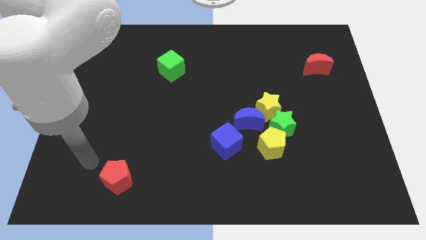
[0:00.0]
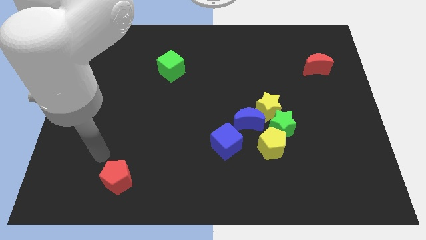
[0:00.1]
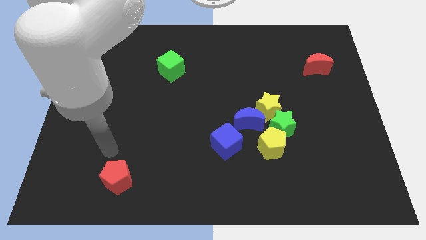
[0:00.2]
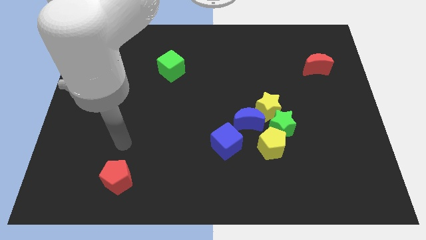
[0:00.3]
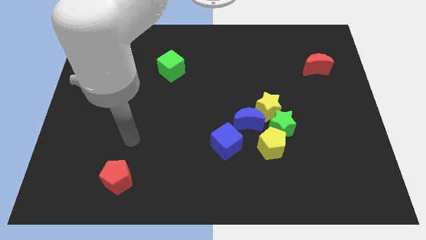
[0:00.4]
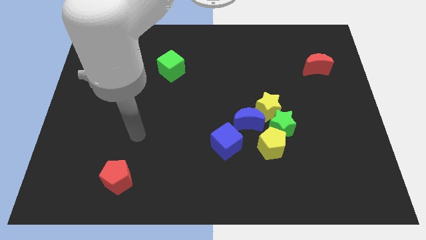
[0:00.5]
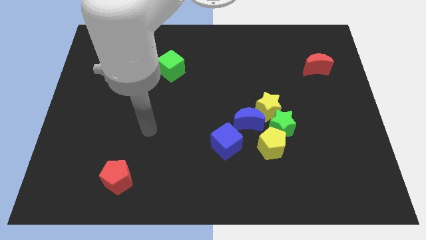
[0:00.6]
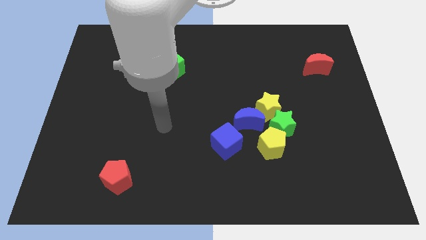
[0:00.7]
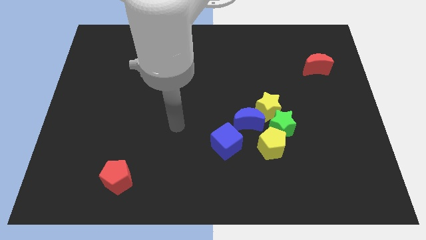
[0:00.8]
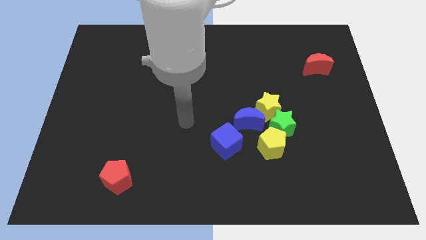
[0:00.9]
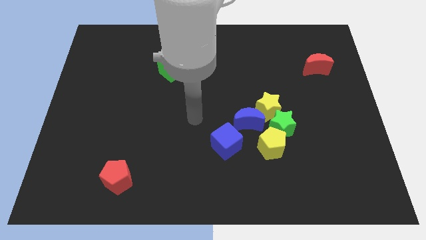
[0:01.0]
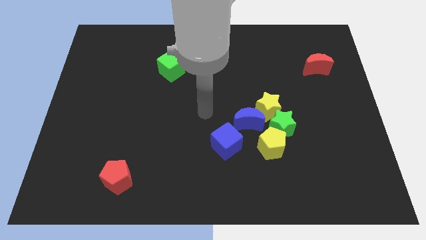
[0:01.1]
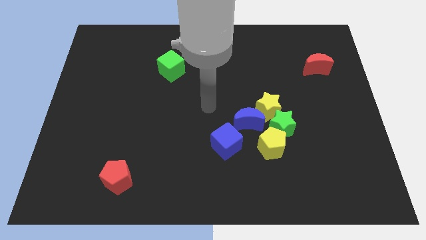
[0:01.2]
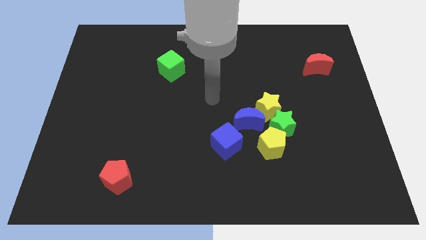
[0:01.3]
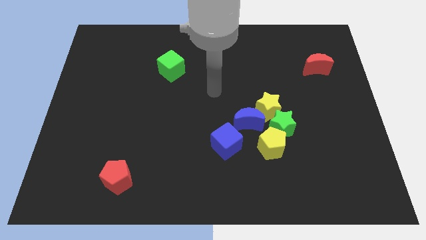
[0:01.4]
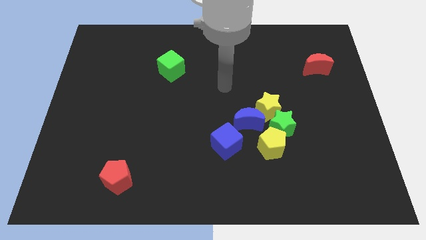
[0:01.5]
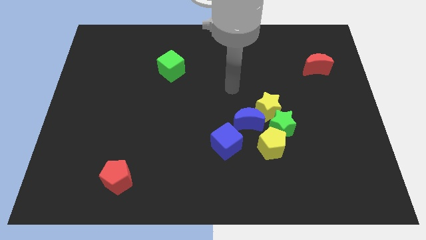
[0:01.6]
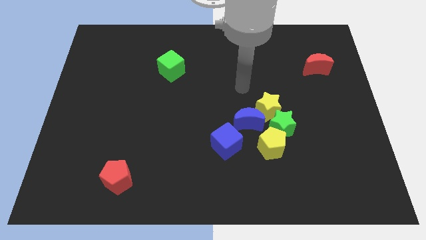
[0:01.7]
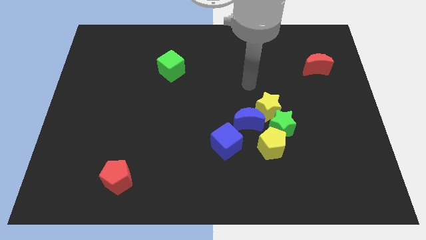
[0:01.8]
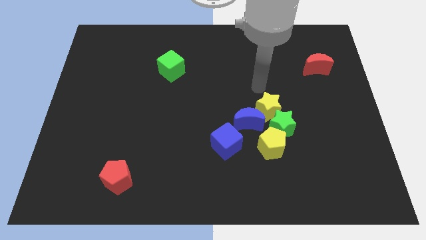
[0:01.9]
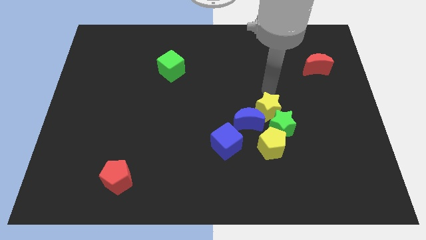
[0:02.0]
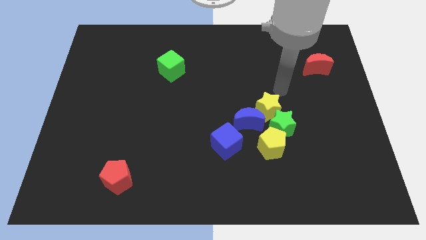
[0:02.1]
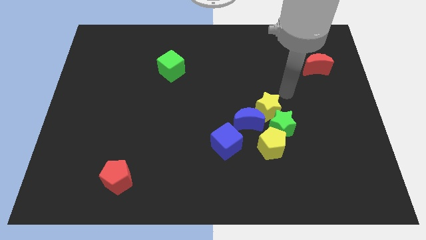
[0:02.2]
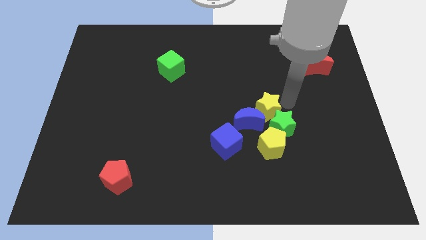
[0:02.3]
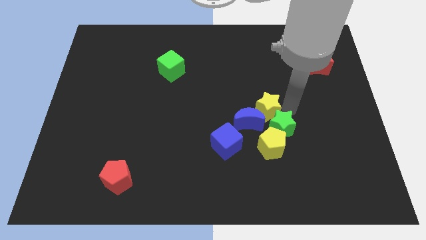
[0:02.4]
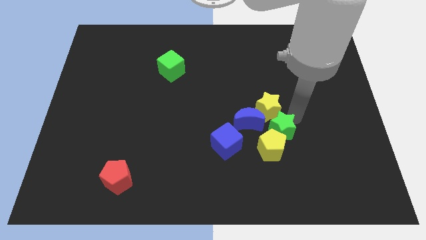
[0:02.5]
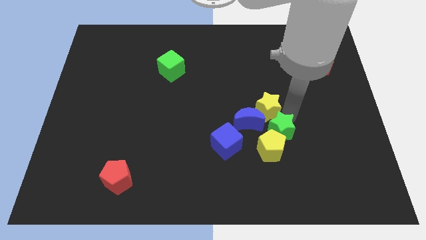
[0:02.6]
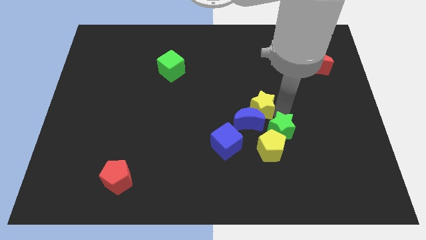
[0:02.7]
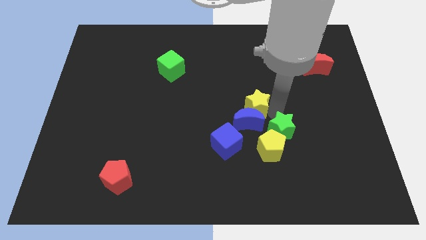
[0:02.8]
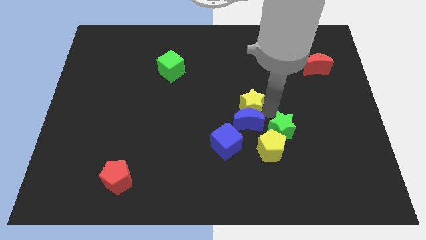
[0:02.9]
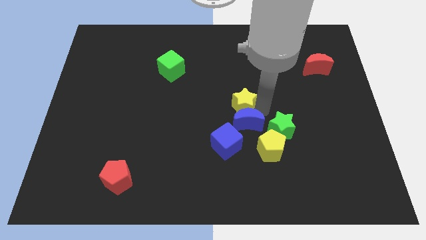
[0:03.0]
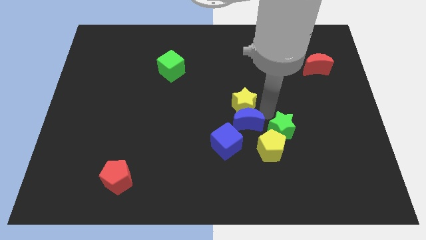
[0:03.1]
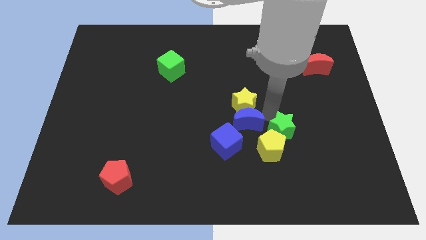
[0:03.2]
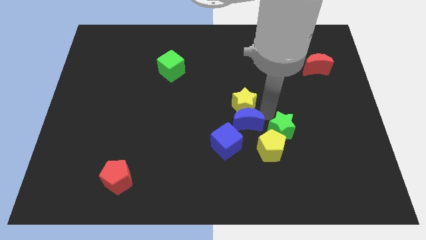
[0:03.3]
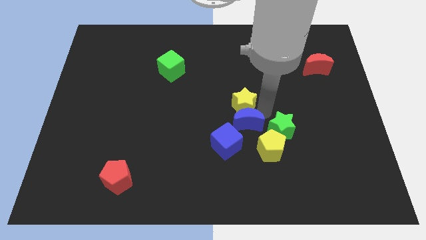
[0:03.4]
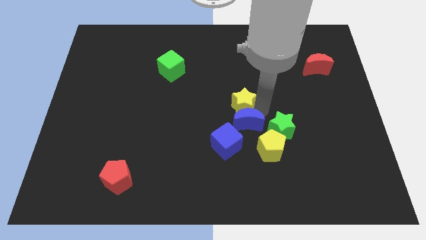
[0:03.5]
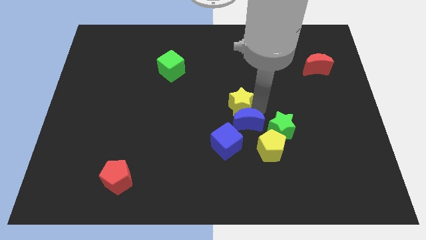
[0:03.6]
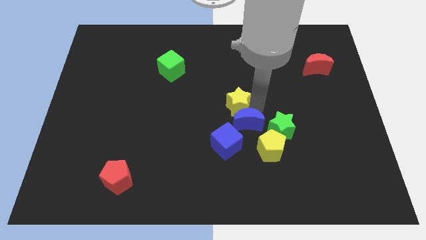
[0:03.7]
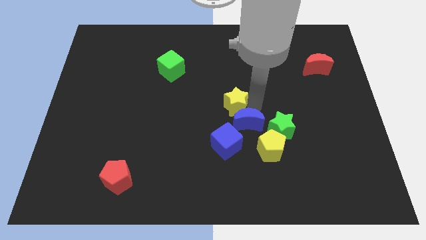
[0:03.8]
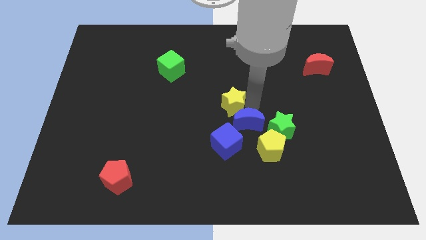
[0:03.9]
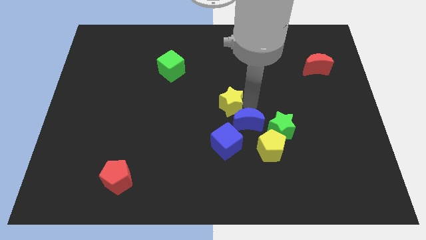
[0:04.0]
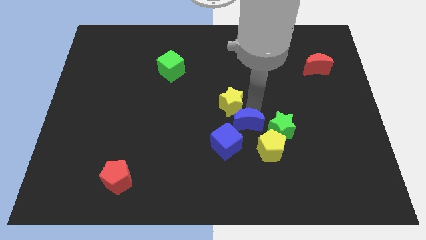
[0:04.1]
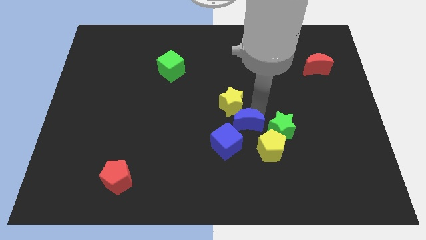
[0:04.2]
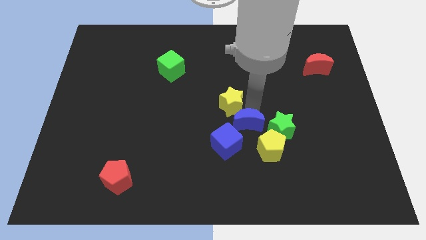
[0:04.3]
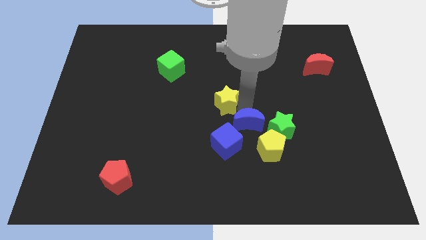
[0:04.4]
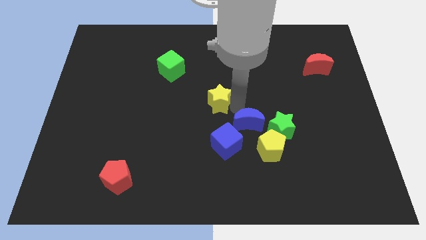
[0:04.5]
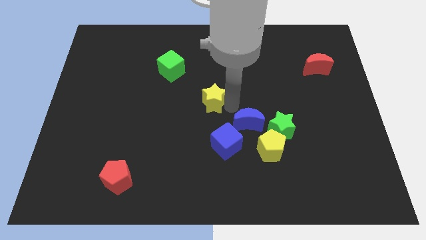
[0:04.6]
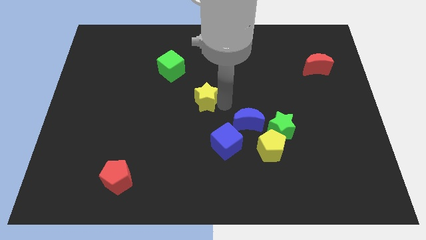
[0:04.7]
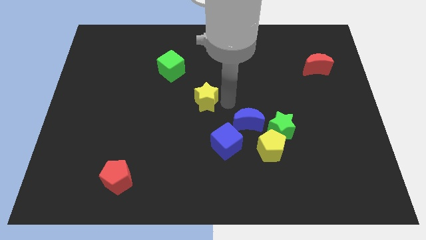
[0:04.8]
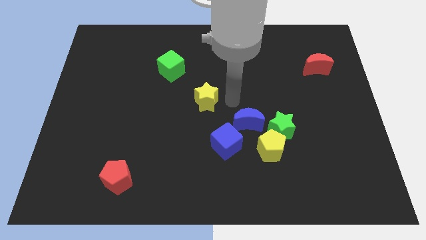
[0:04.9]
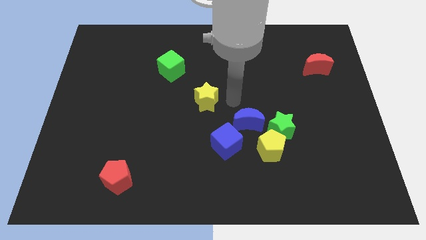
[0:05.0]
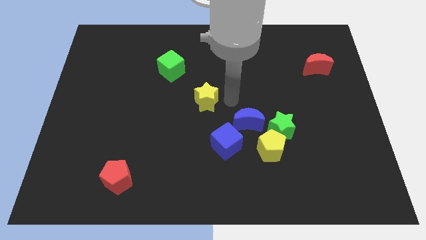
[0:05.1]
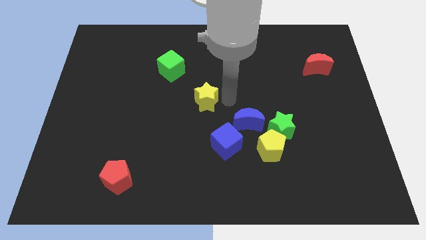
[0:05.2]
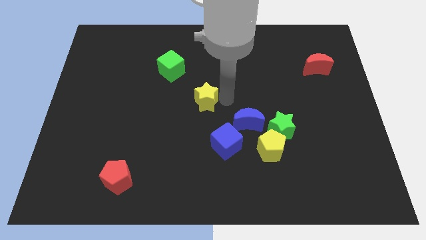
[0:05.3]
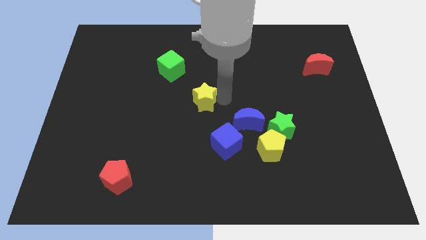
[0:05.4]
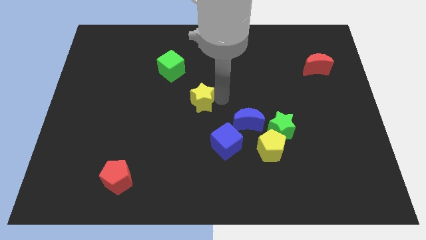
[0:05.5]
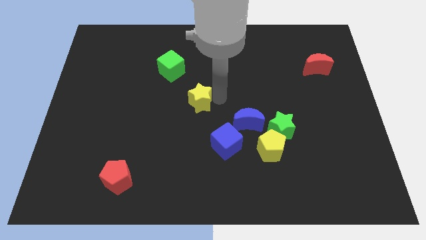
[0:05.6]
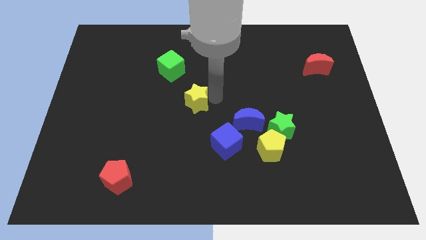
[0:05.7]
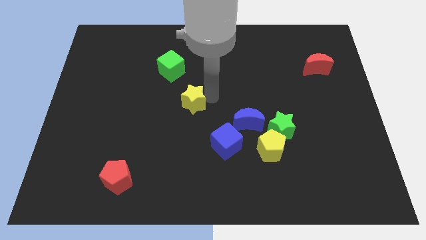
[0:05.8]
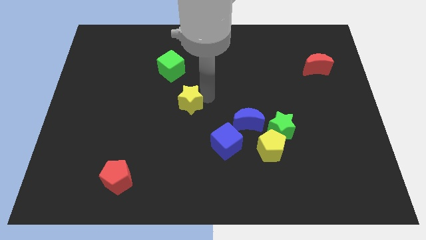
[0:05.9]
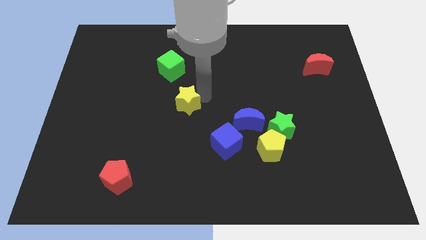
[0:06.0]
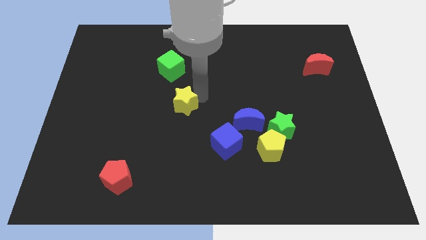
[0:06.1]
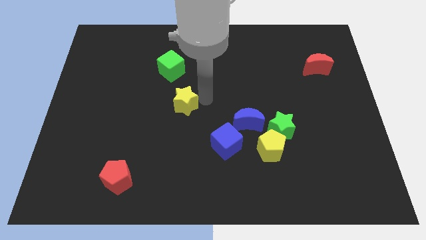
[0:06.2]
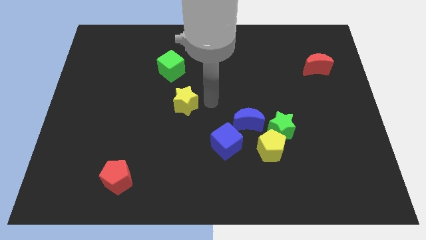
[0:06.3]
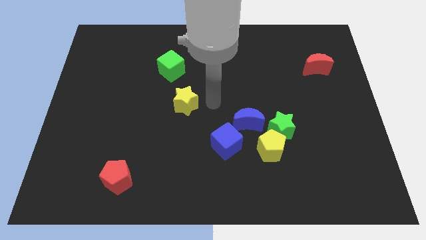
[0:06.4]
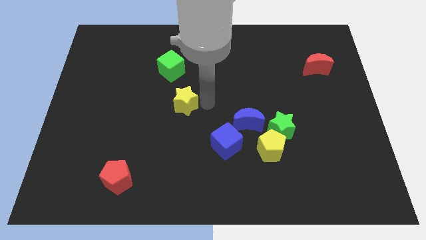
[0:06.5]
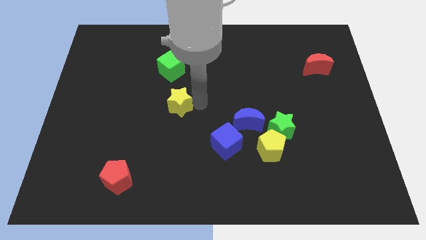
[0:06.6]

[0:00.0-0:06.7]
slide the yellow star left

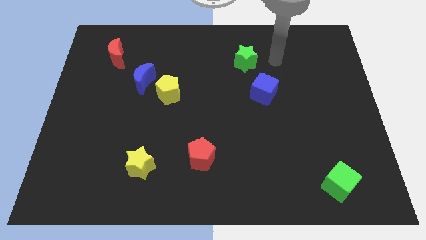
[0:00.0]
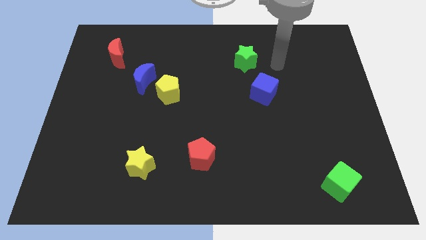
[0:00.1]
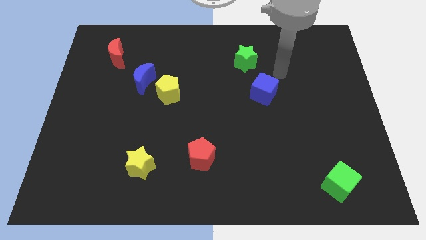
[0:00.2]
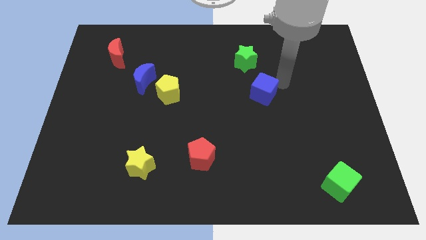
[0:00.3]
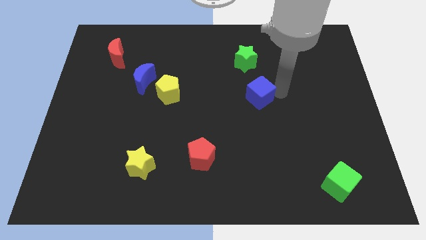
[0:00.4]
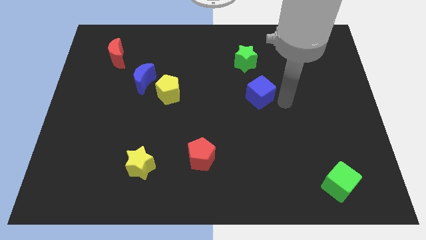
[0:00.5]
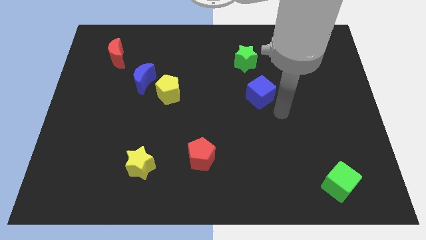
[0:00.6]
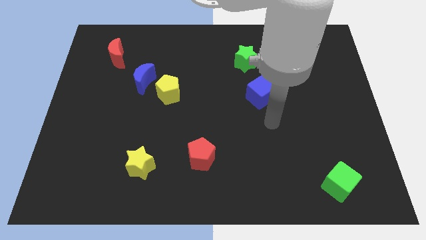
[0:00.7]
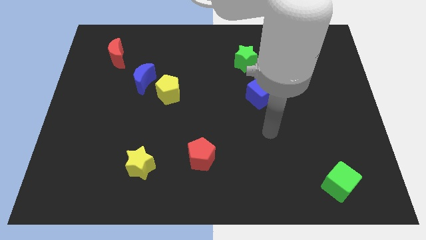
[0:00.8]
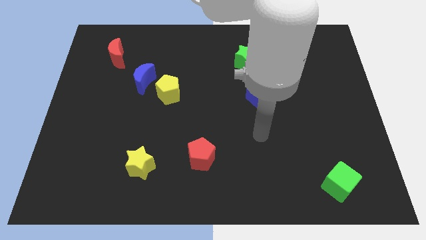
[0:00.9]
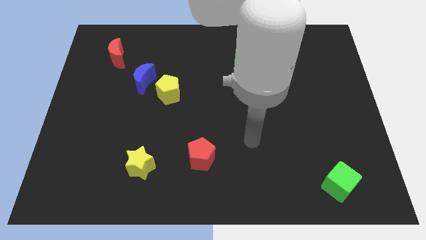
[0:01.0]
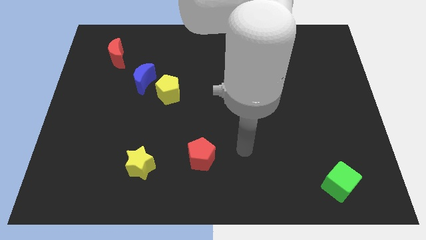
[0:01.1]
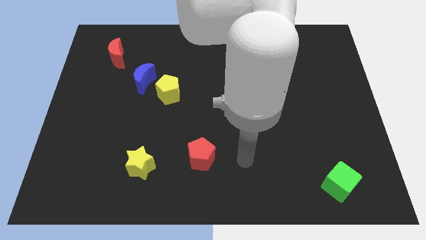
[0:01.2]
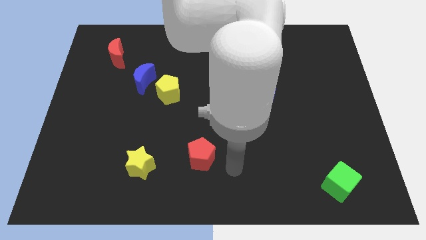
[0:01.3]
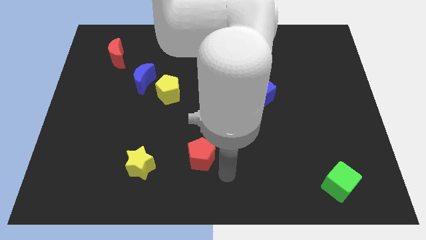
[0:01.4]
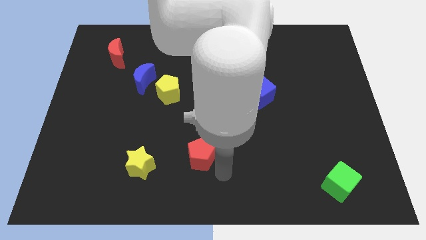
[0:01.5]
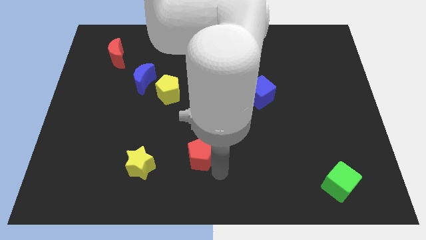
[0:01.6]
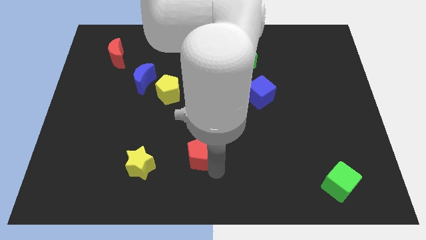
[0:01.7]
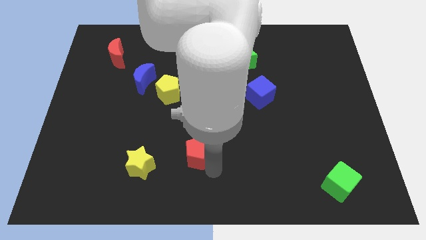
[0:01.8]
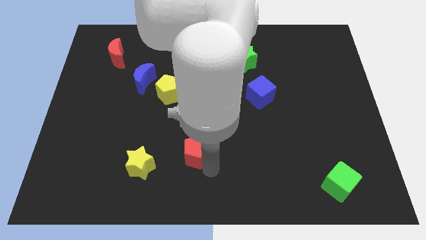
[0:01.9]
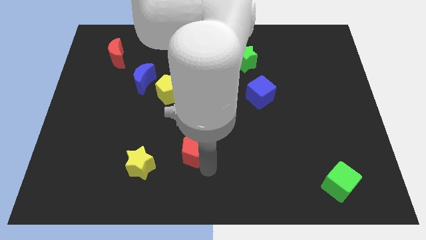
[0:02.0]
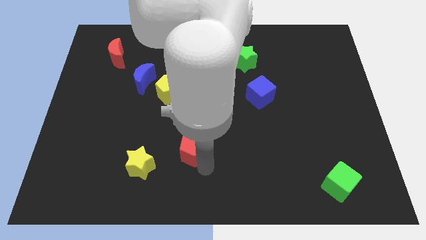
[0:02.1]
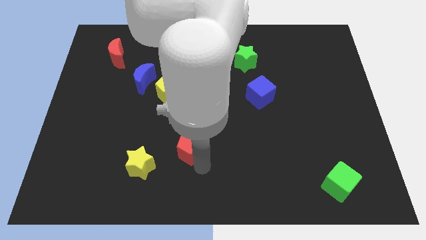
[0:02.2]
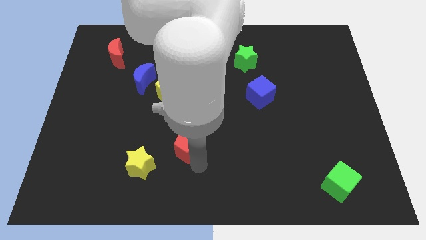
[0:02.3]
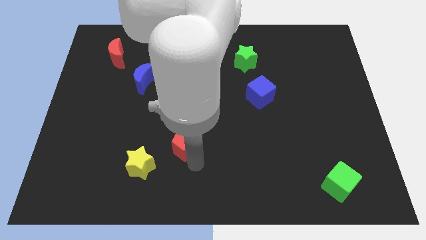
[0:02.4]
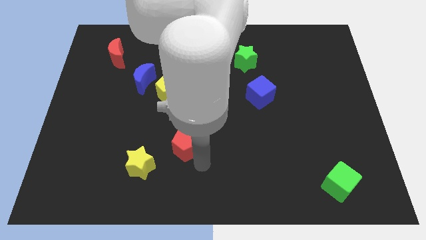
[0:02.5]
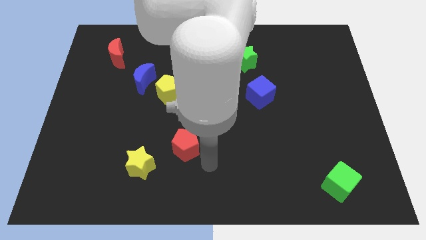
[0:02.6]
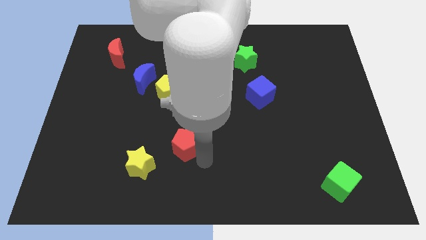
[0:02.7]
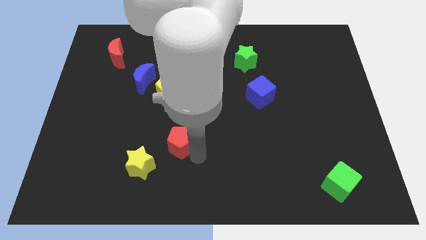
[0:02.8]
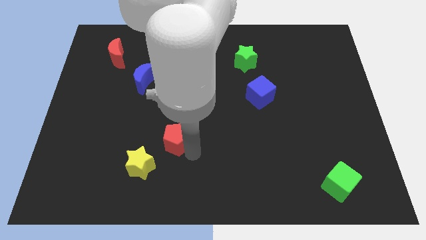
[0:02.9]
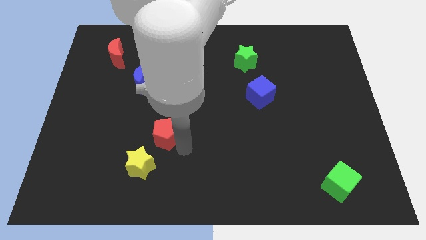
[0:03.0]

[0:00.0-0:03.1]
slightly move the red pentagon diagonally upwards and left
